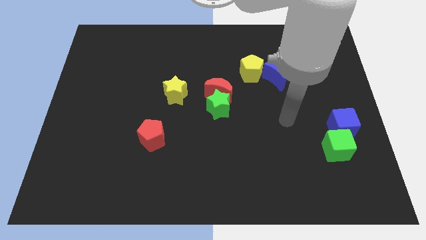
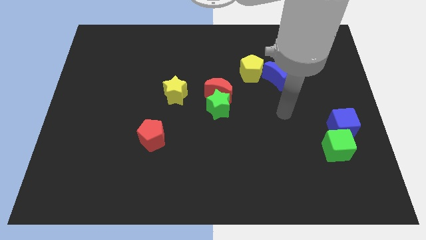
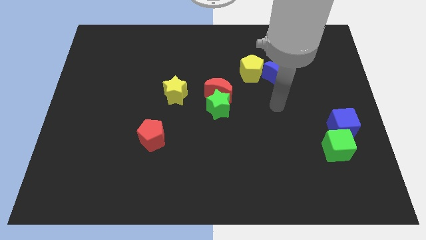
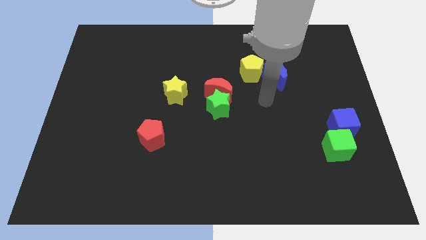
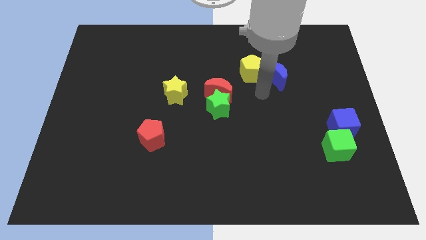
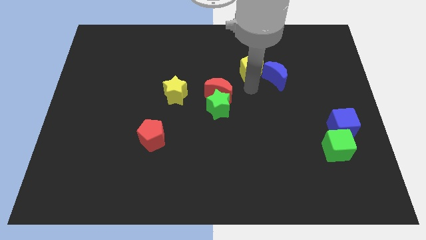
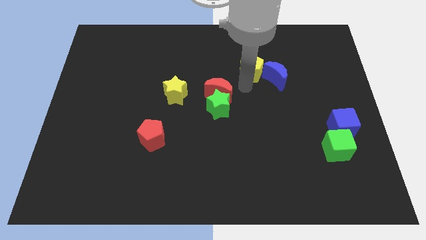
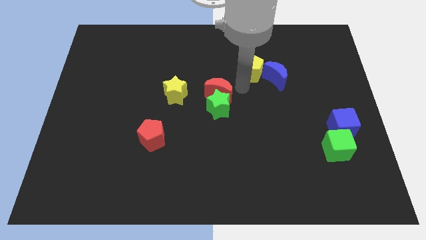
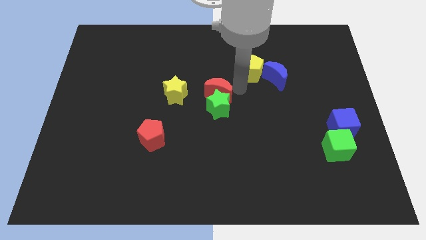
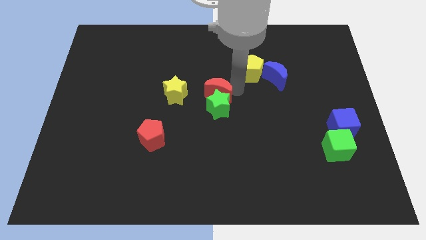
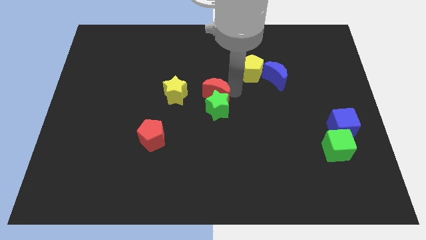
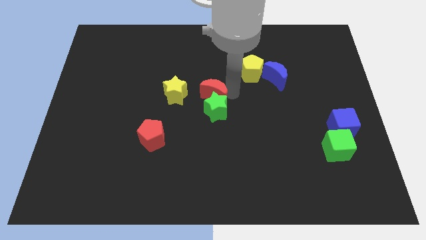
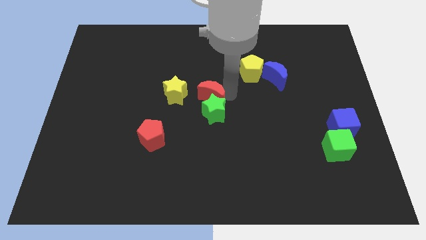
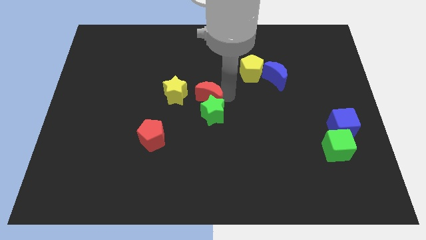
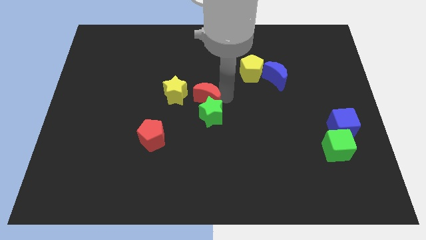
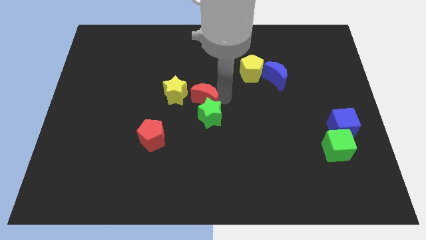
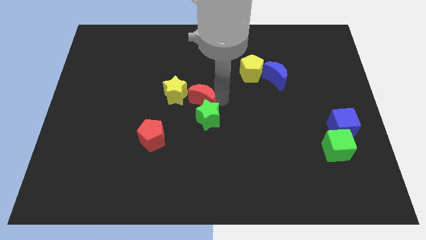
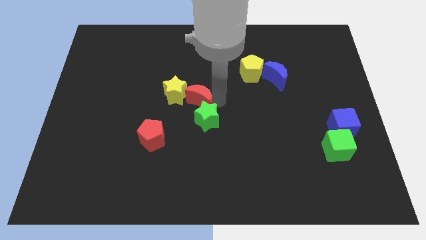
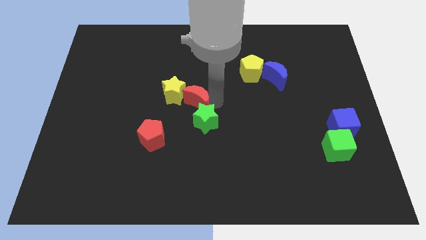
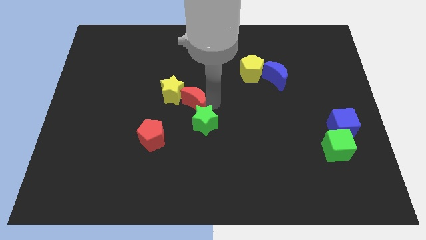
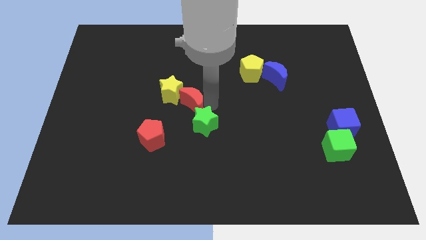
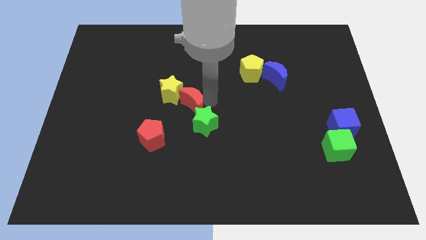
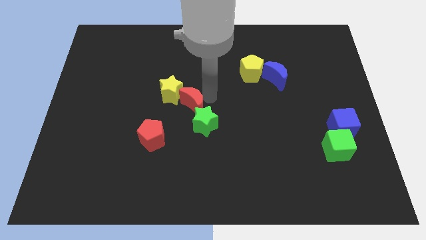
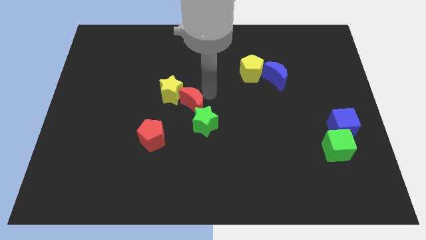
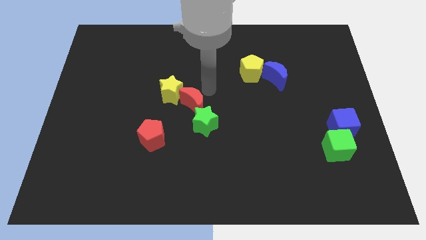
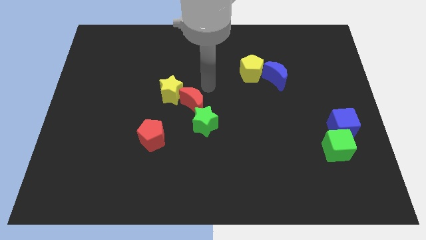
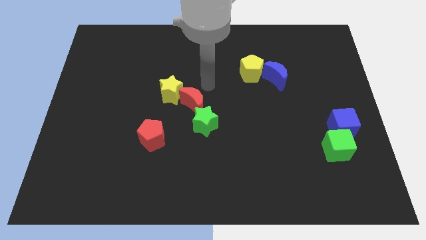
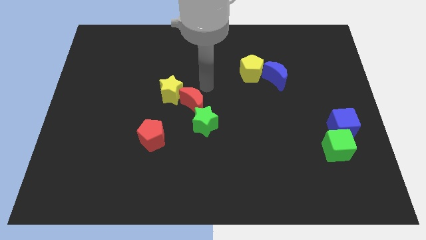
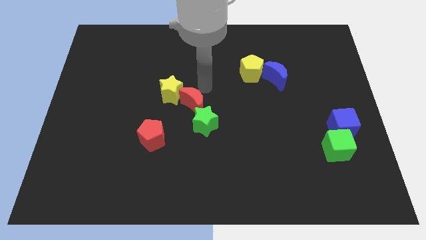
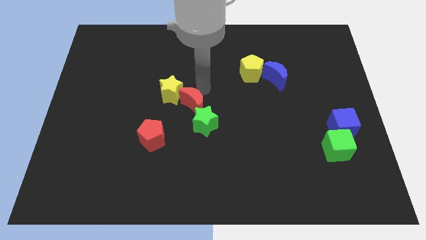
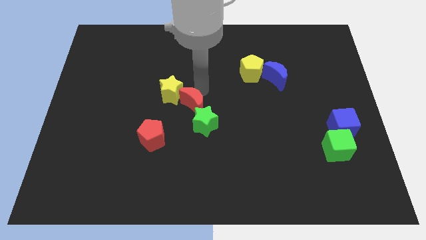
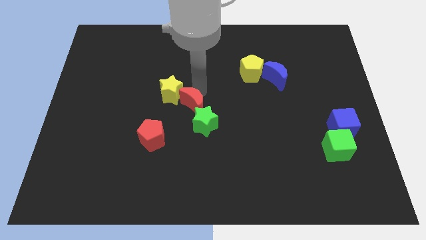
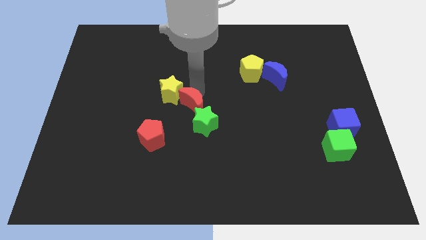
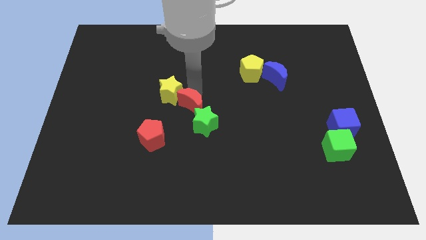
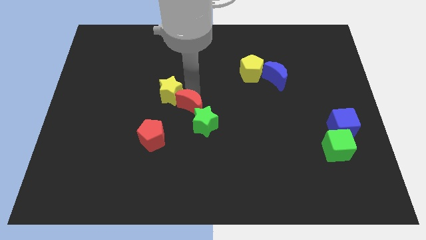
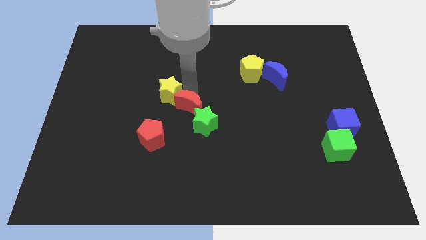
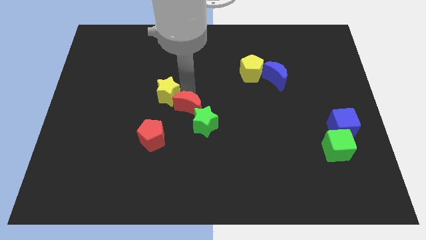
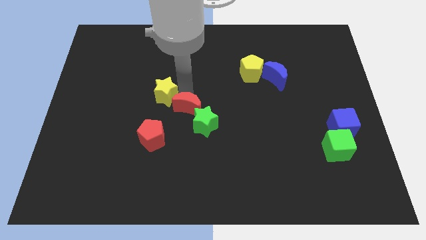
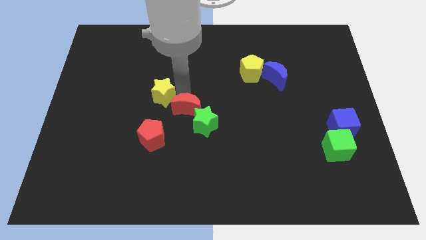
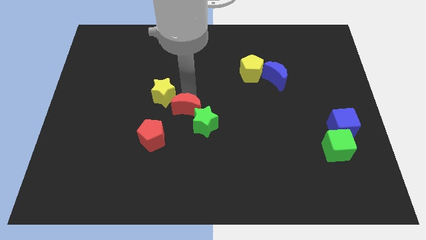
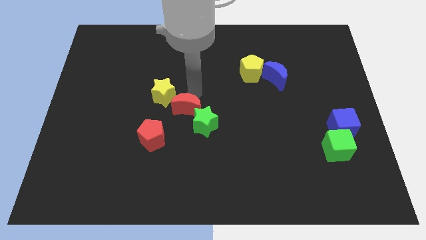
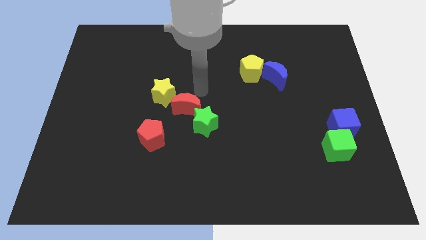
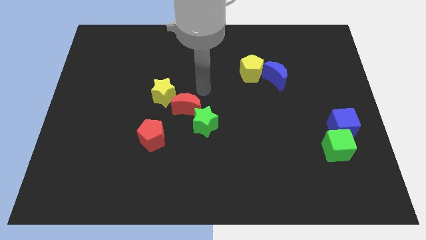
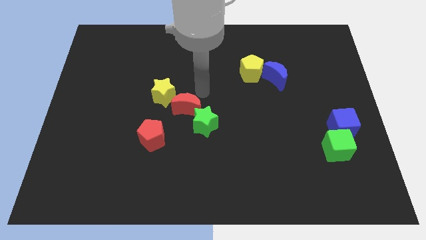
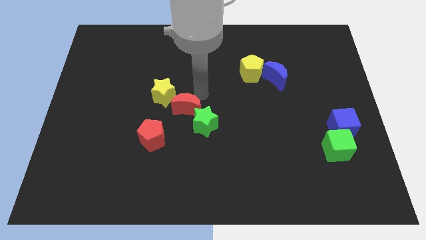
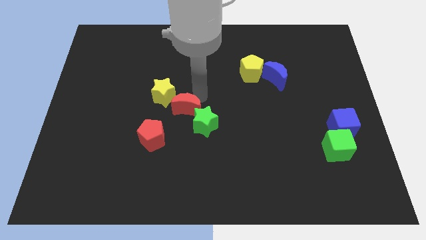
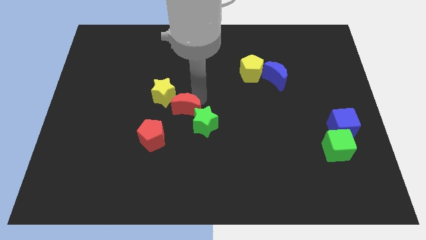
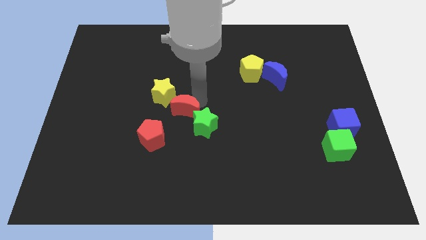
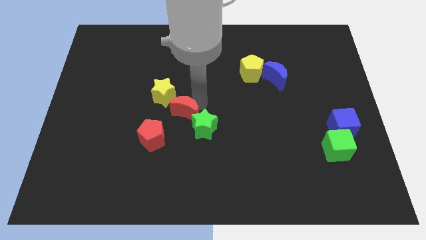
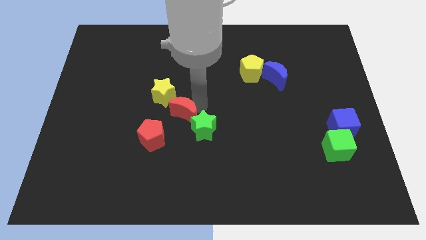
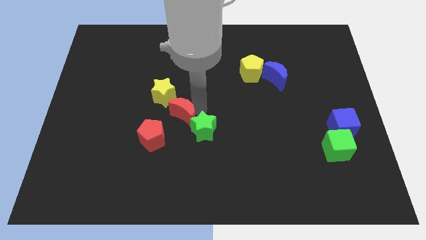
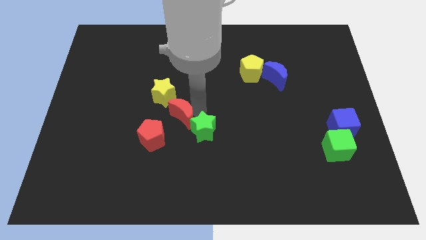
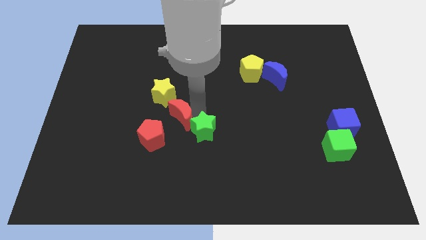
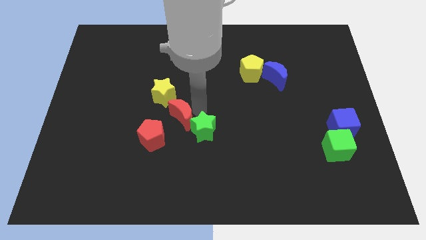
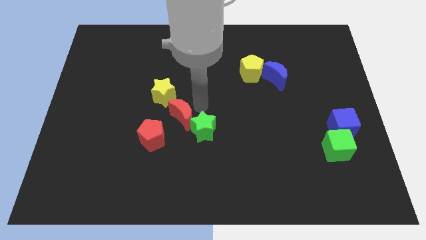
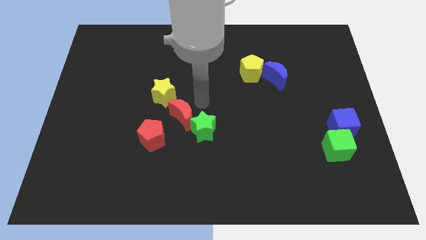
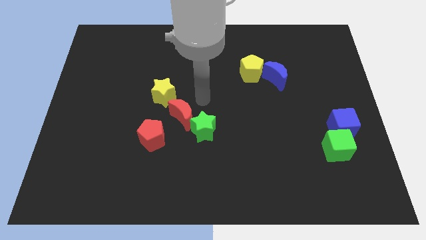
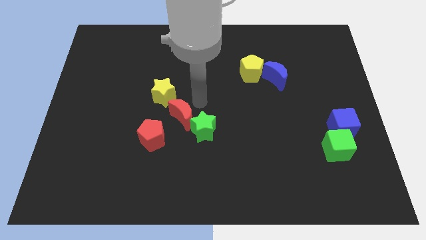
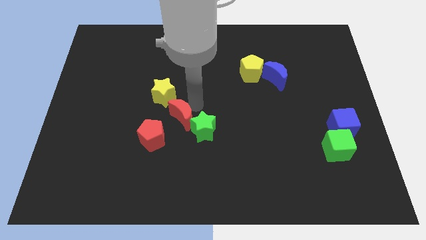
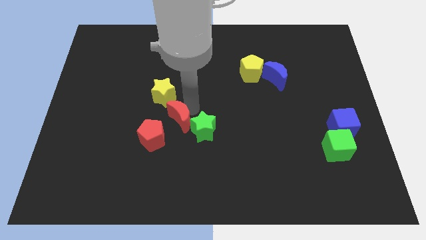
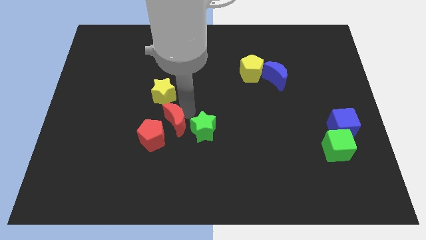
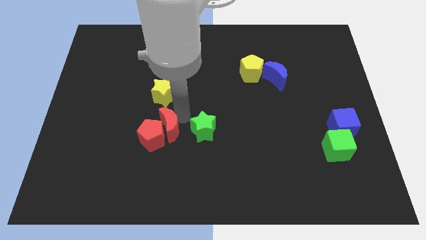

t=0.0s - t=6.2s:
slide the red moon next to the red pentagon

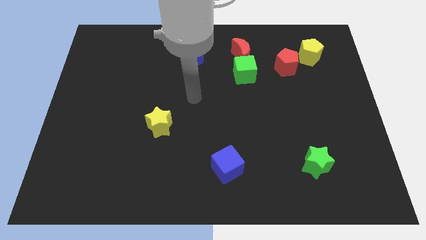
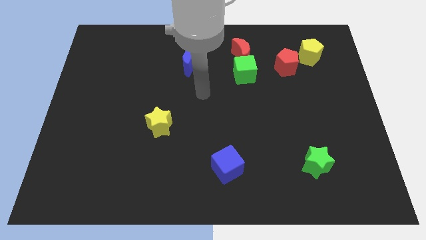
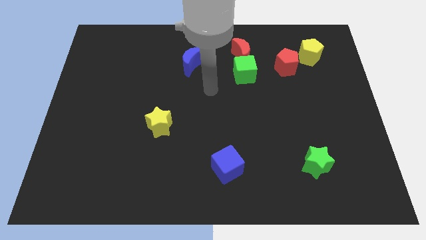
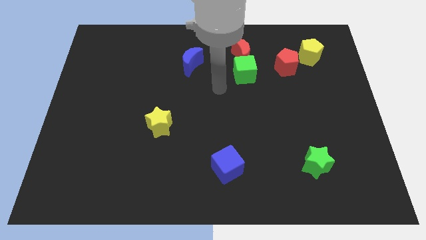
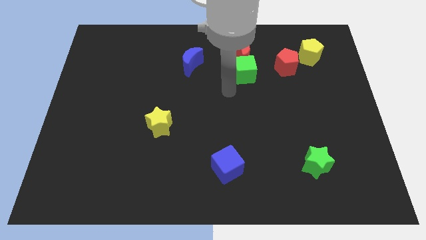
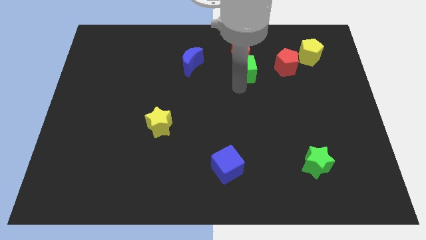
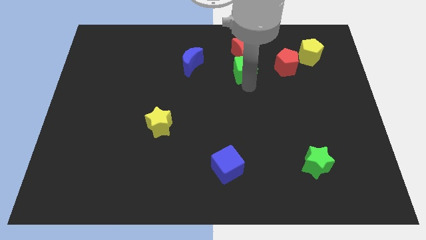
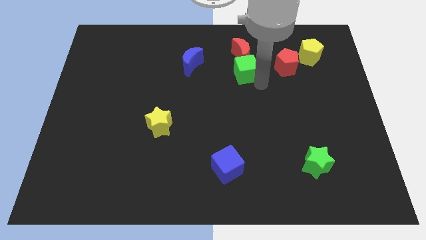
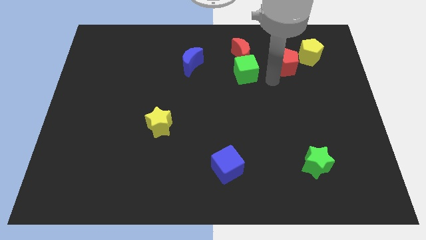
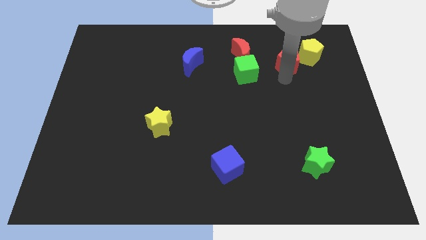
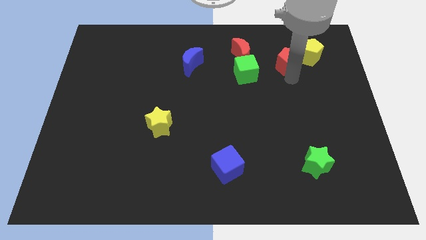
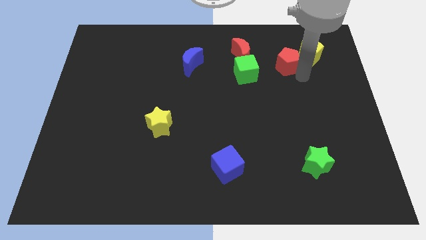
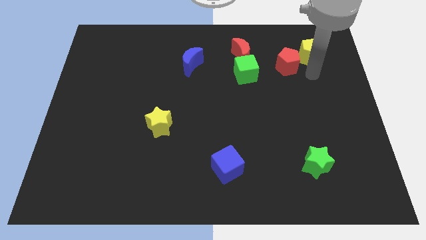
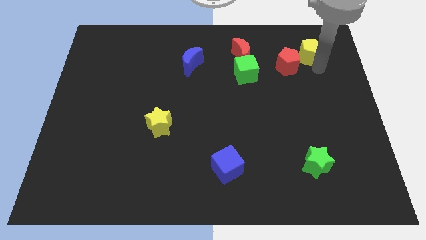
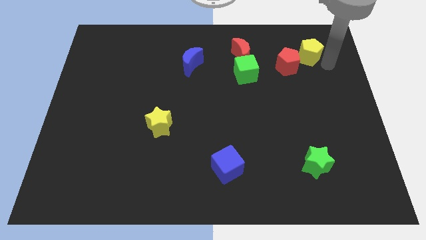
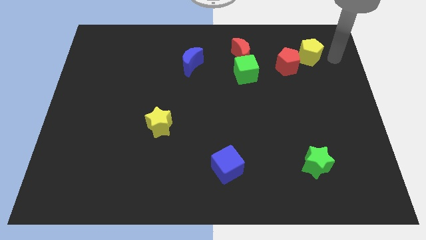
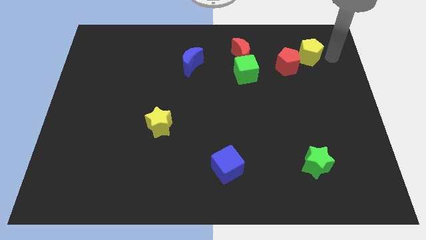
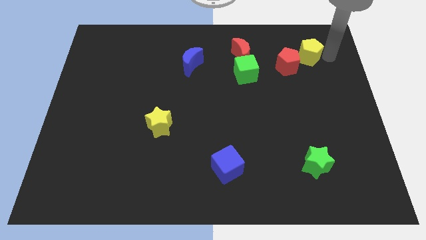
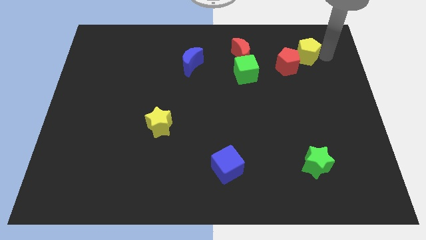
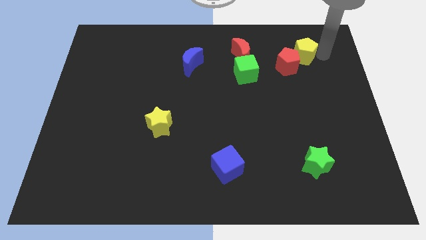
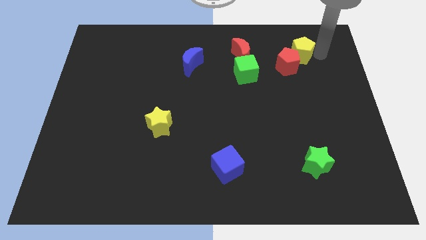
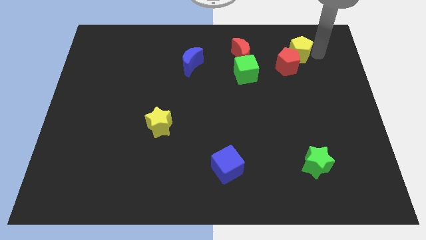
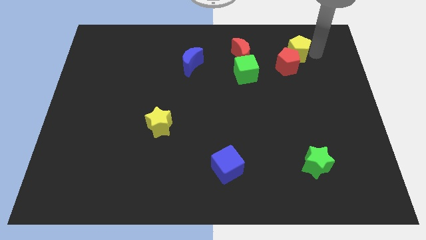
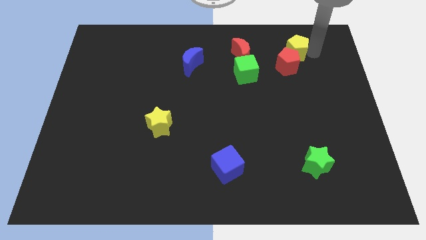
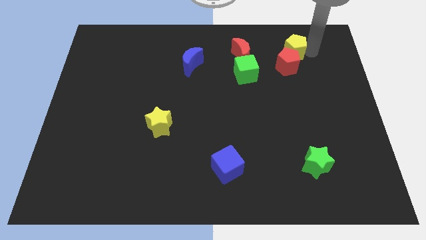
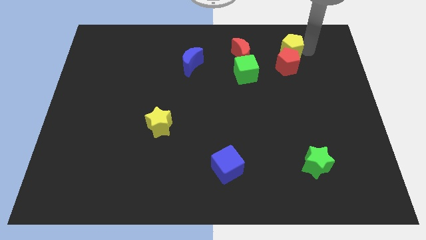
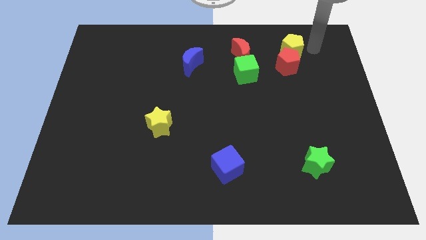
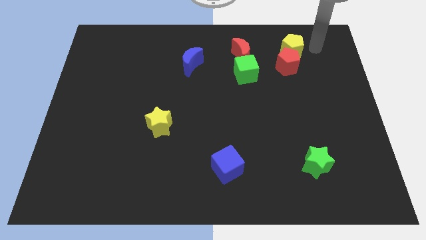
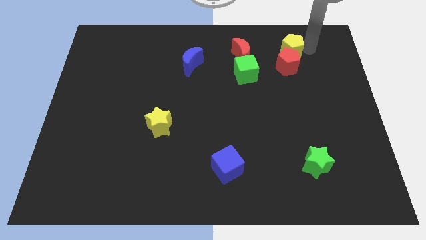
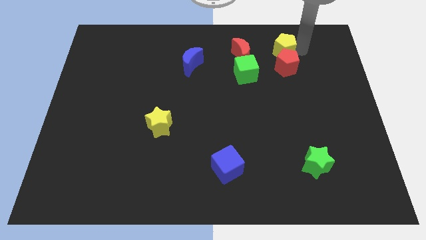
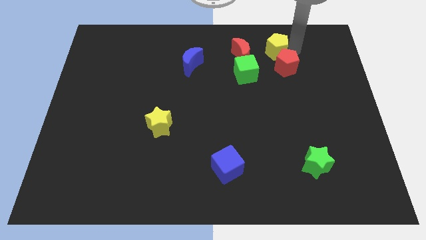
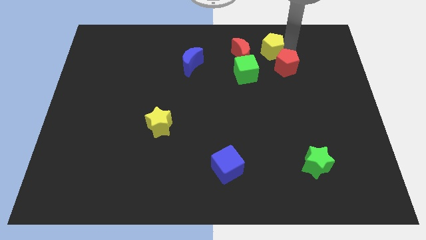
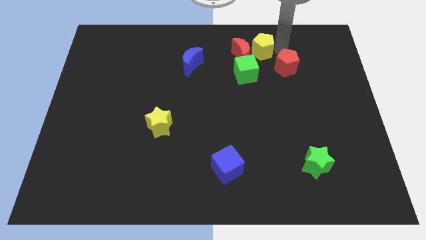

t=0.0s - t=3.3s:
push the yellow pentagon to the red moon
